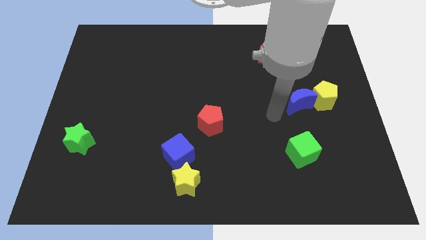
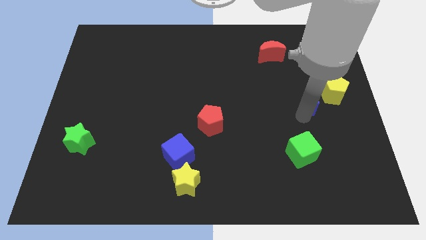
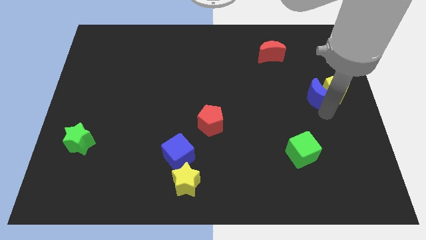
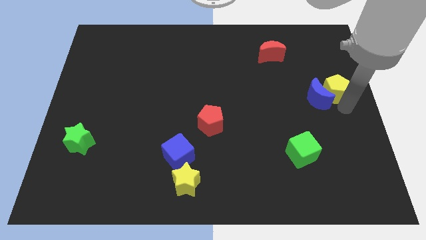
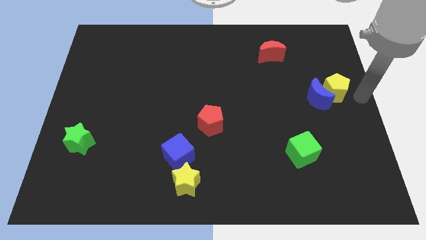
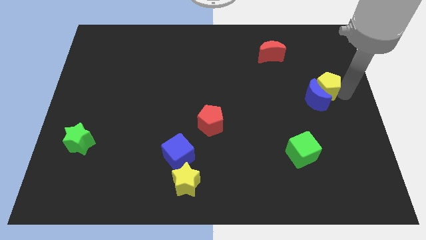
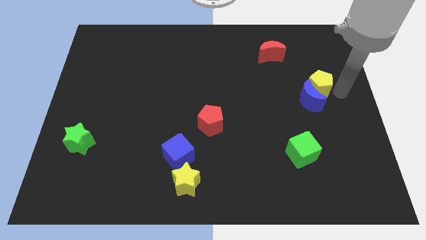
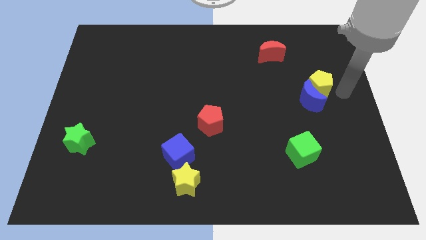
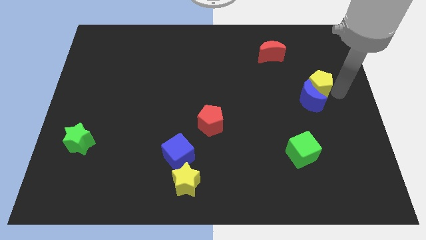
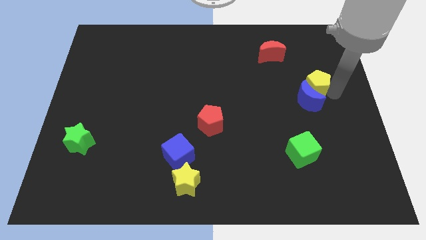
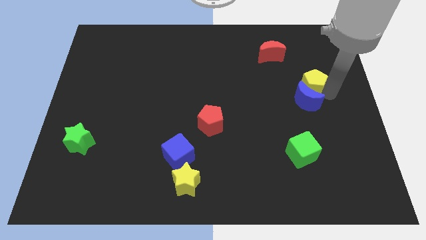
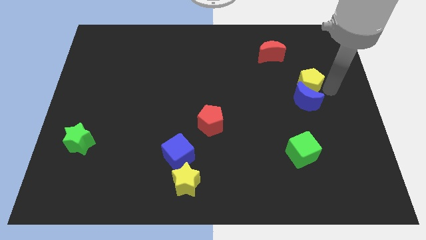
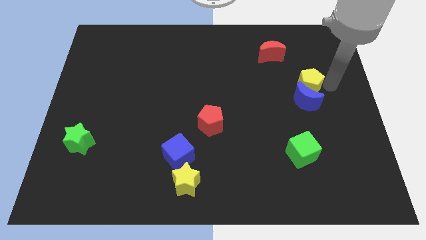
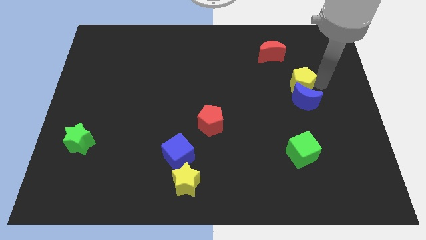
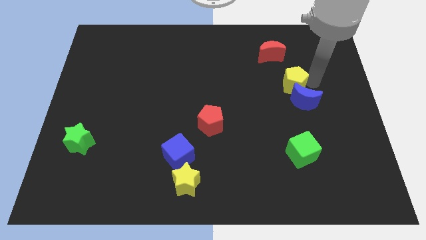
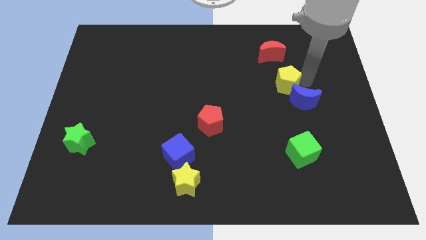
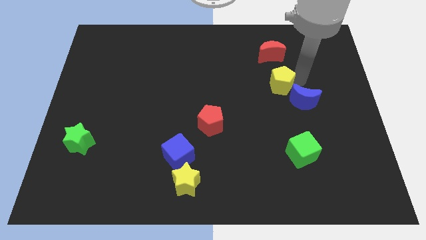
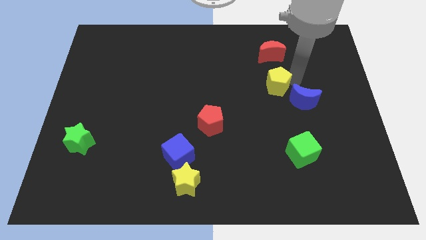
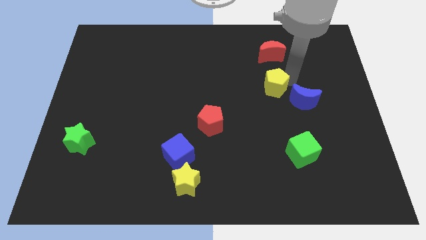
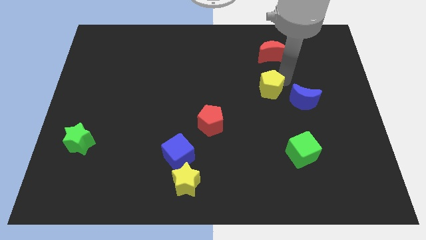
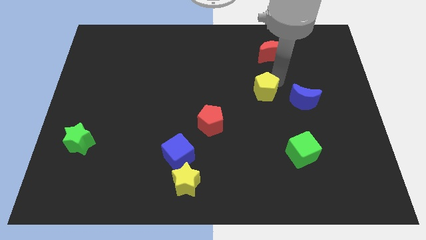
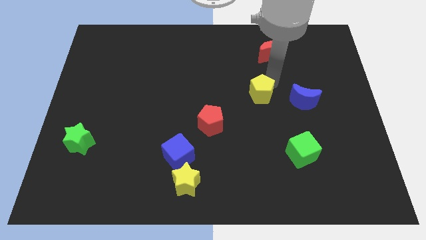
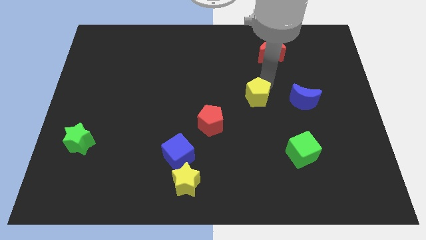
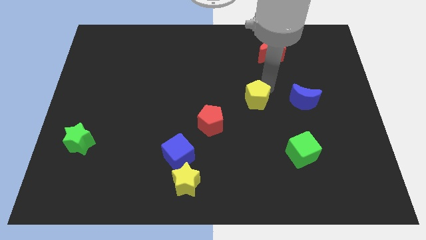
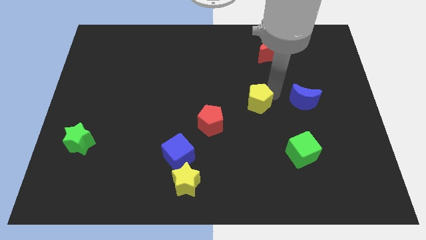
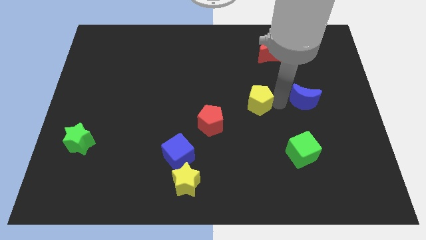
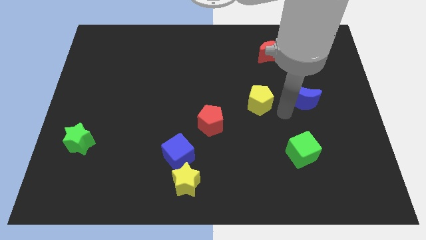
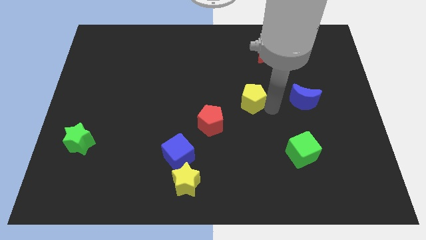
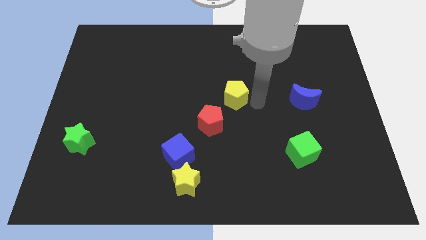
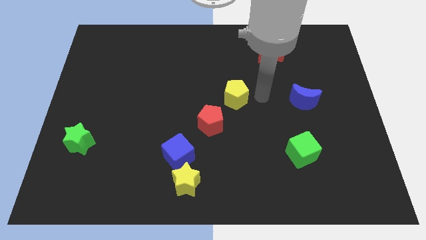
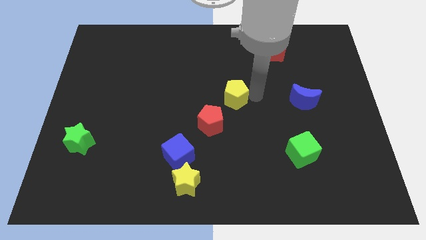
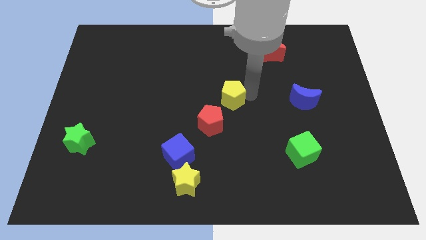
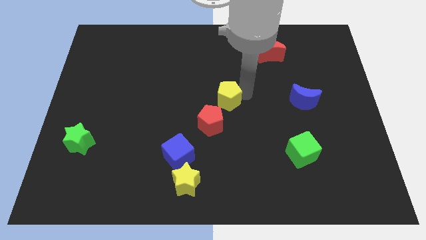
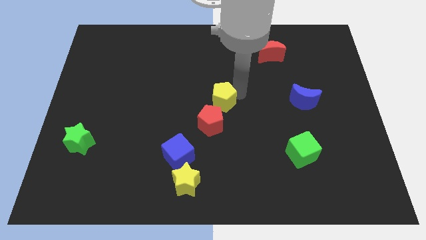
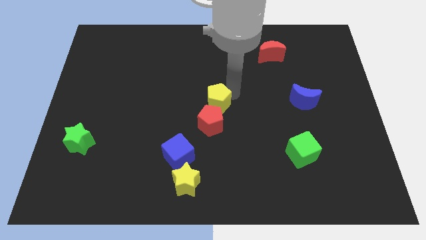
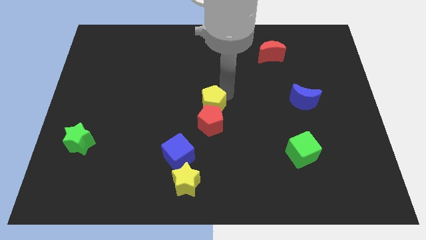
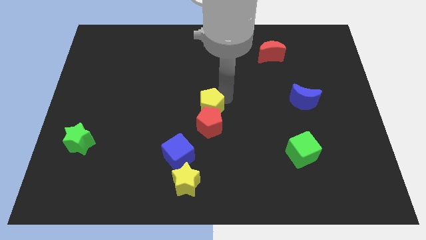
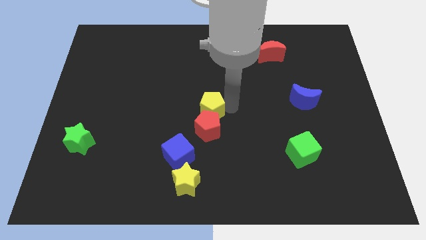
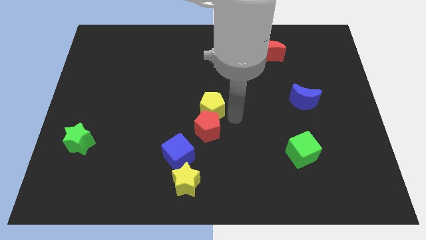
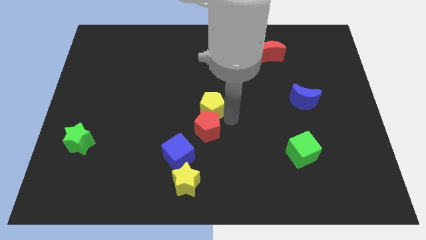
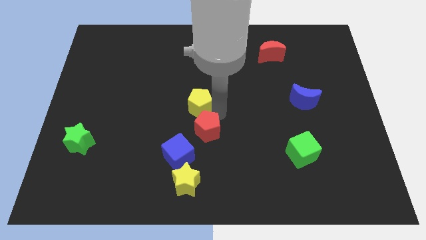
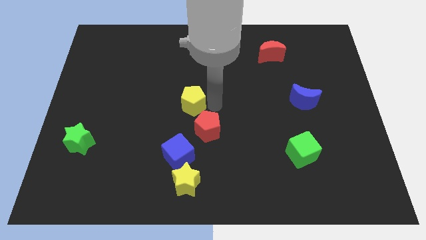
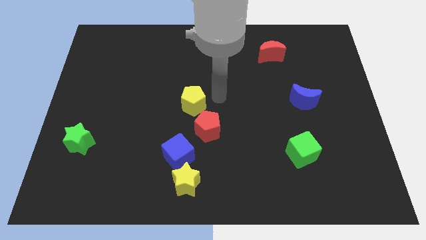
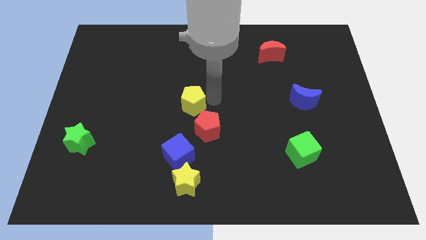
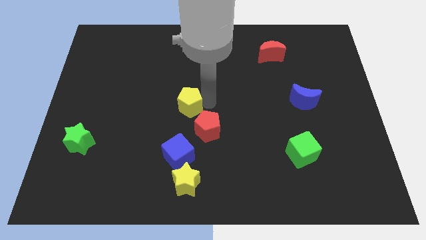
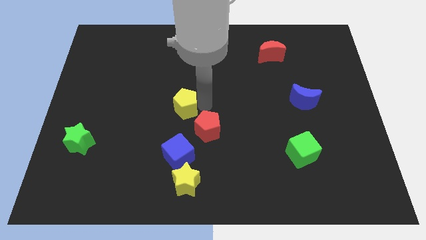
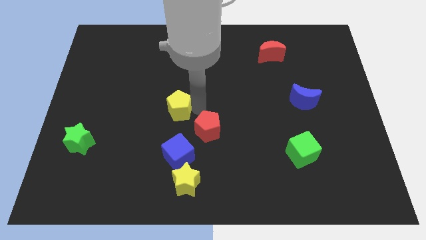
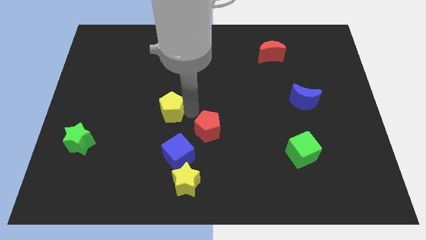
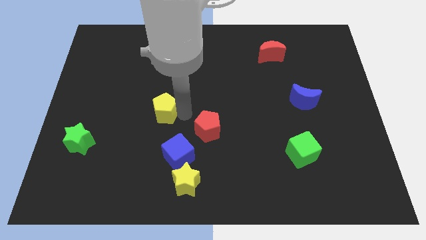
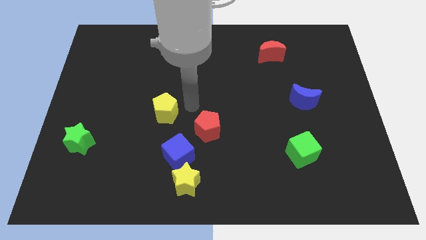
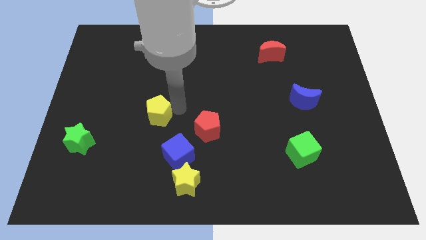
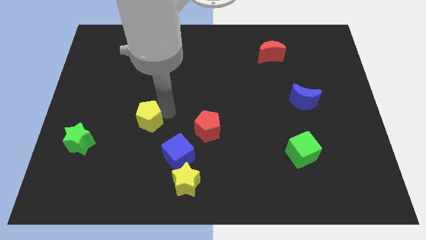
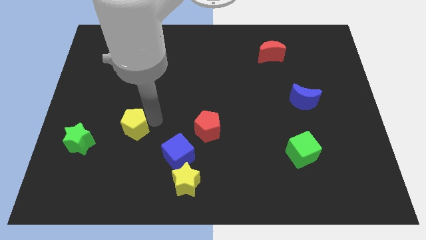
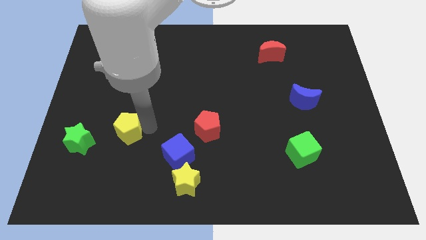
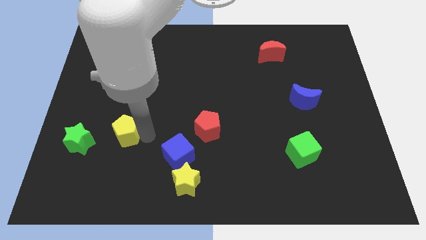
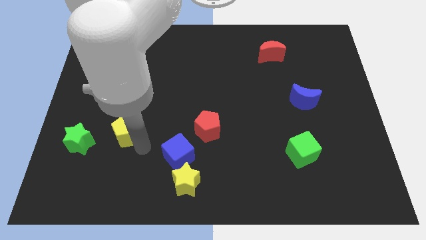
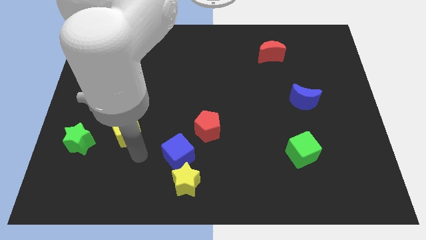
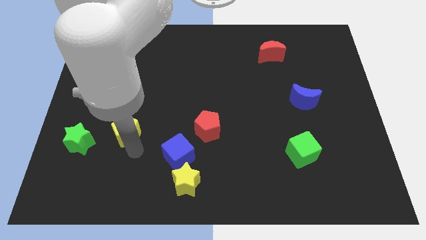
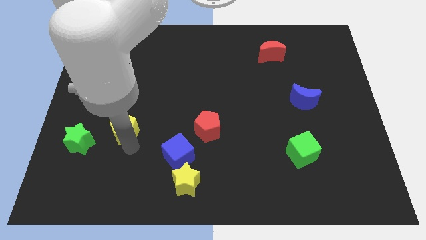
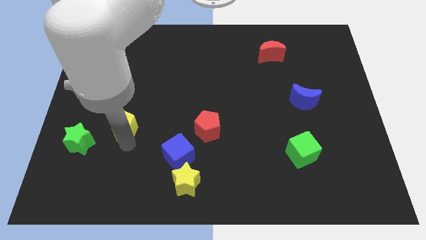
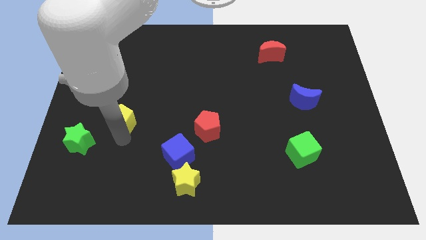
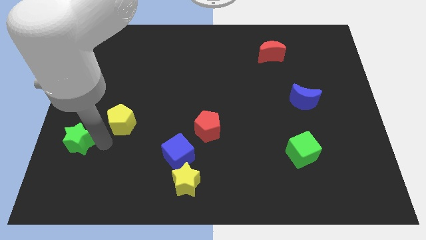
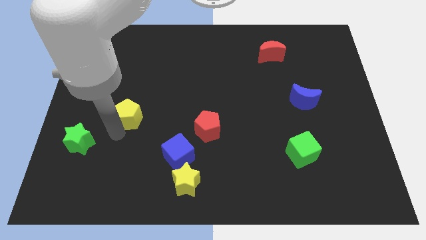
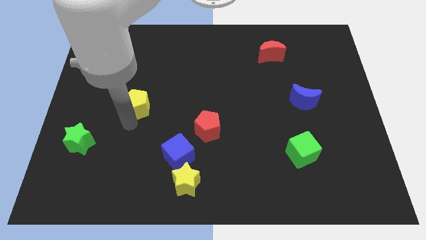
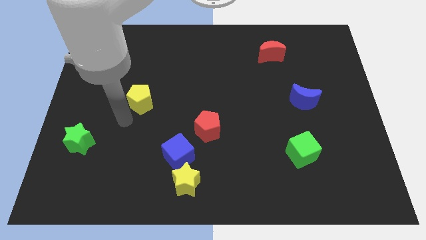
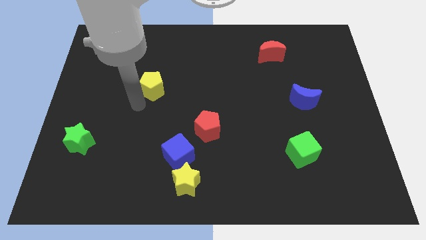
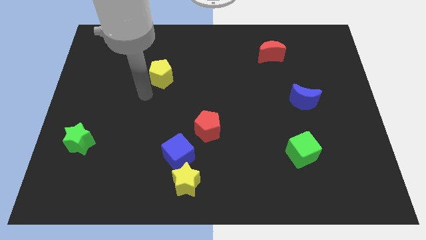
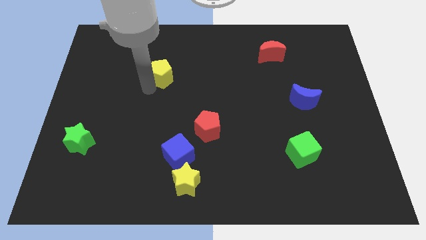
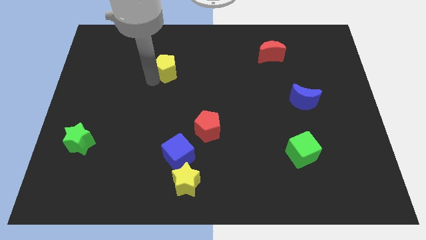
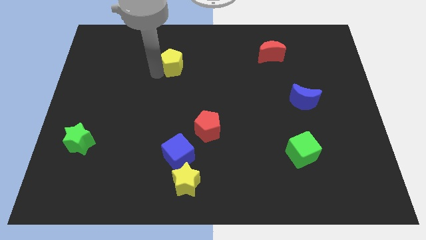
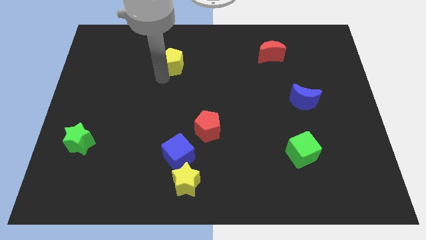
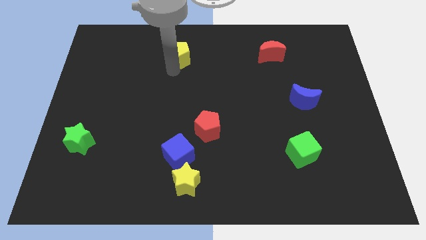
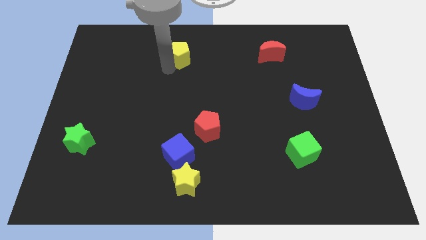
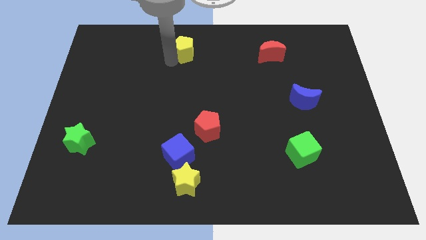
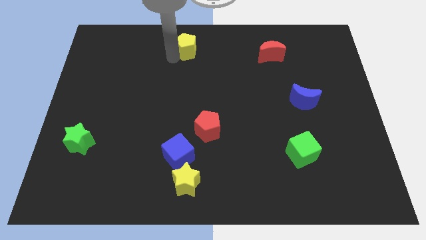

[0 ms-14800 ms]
move the yellow pentagon to the top
